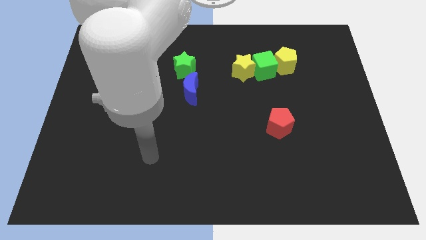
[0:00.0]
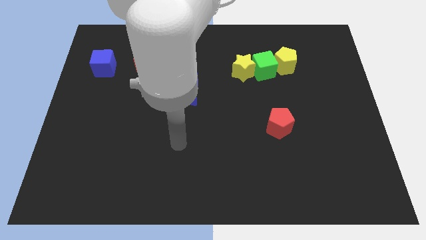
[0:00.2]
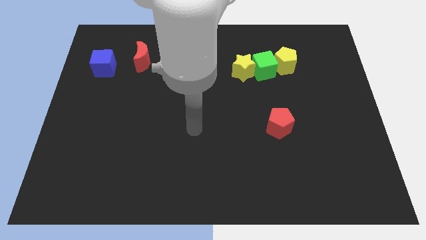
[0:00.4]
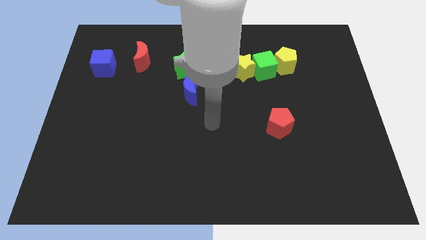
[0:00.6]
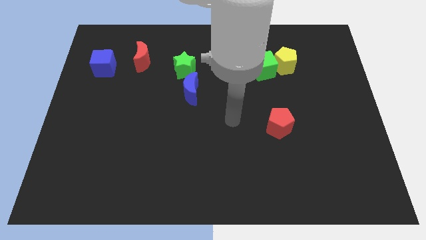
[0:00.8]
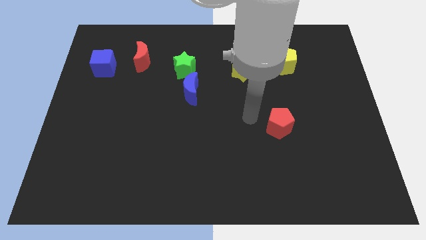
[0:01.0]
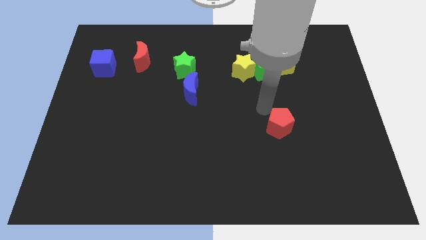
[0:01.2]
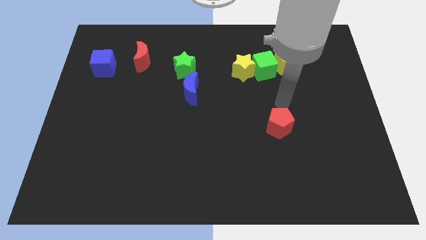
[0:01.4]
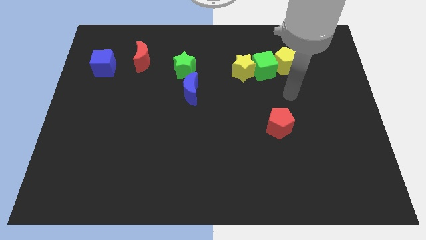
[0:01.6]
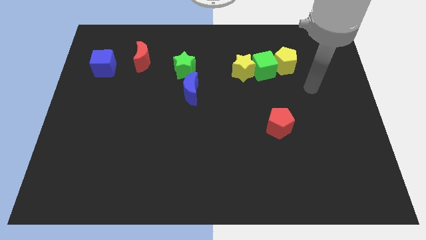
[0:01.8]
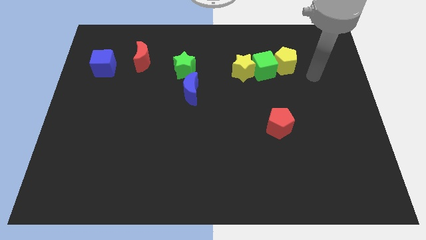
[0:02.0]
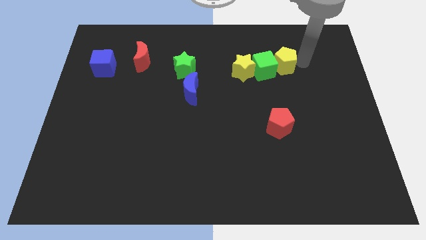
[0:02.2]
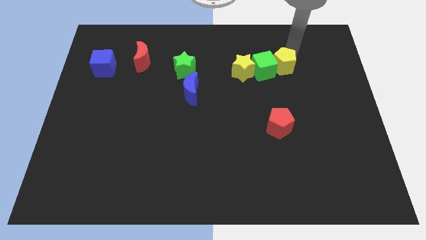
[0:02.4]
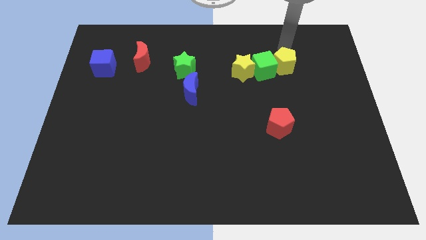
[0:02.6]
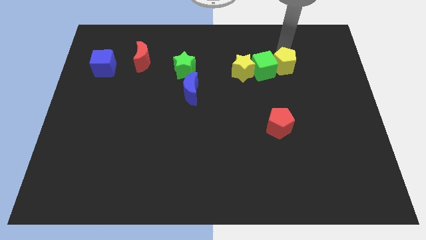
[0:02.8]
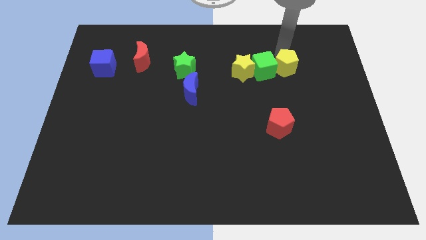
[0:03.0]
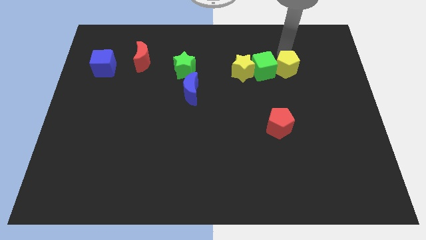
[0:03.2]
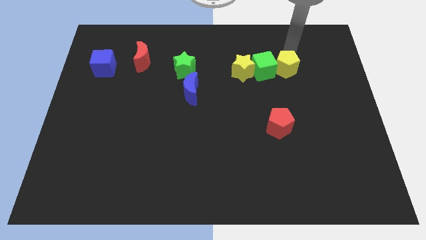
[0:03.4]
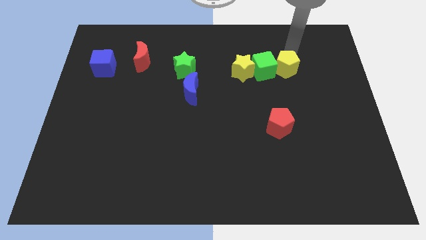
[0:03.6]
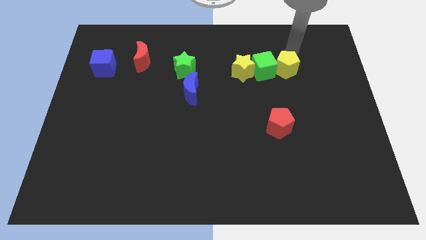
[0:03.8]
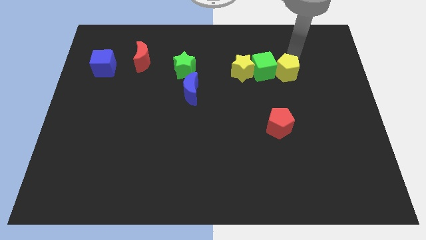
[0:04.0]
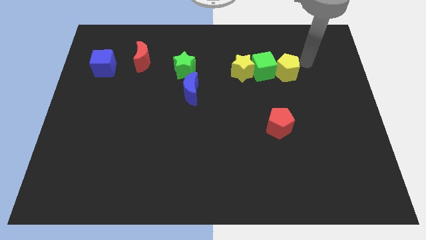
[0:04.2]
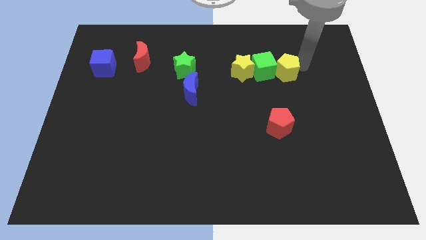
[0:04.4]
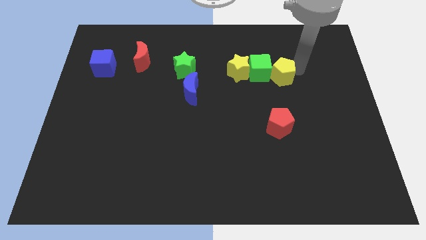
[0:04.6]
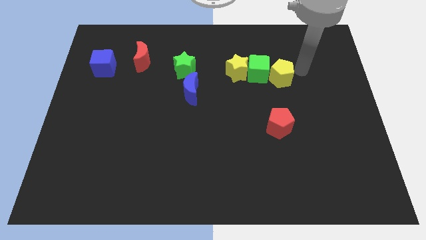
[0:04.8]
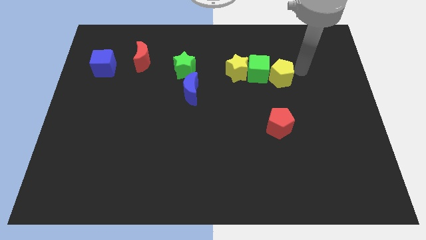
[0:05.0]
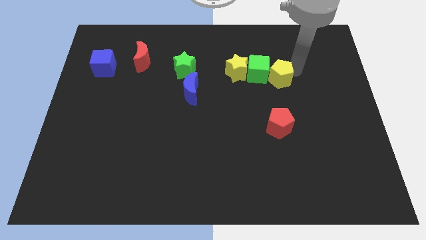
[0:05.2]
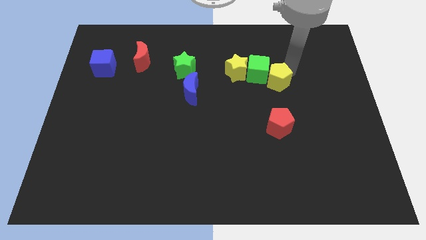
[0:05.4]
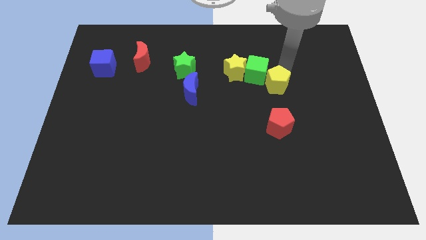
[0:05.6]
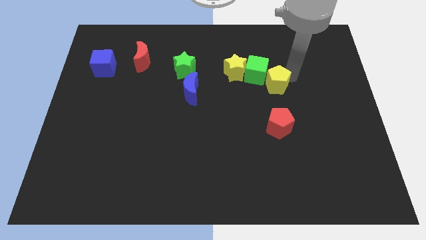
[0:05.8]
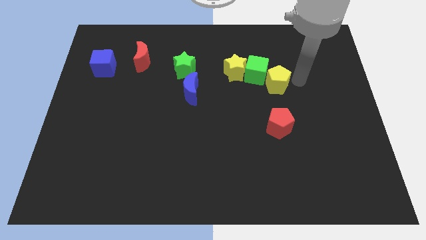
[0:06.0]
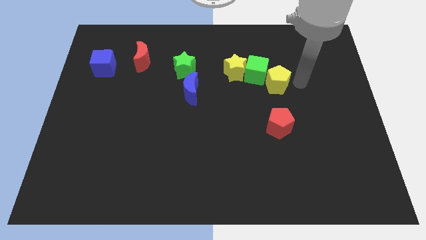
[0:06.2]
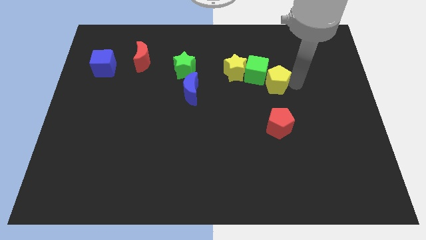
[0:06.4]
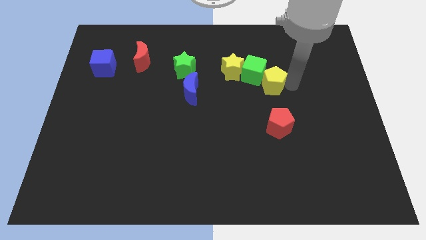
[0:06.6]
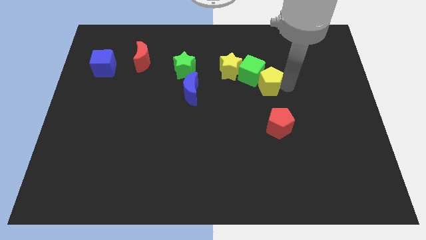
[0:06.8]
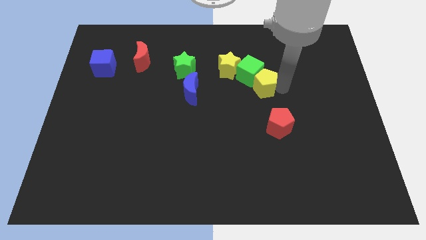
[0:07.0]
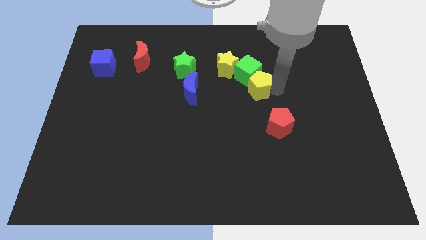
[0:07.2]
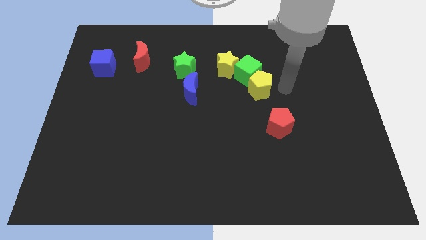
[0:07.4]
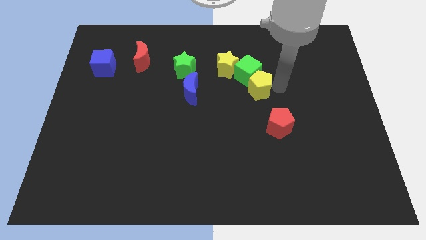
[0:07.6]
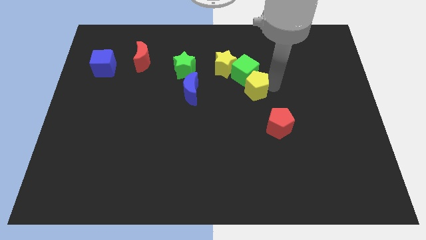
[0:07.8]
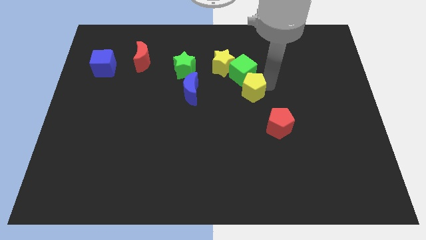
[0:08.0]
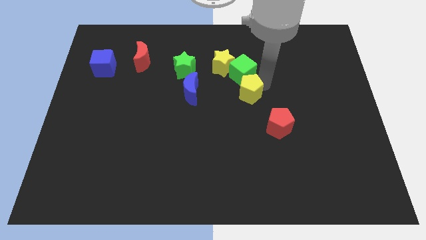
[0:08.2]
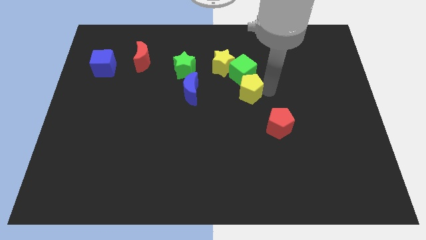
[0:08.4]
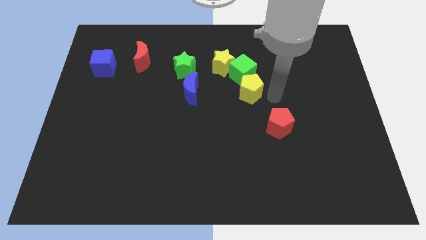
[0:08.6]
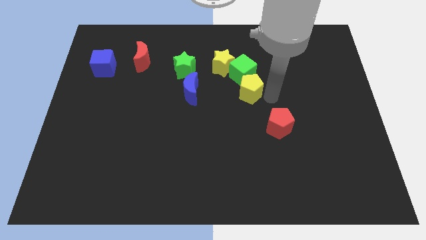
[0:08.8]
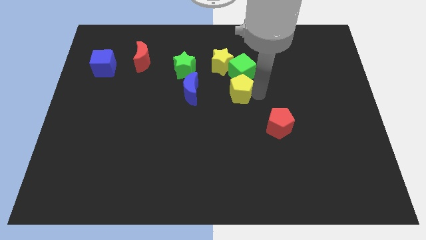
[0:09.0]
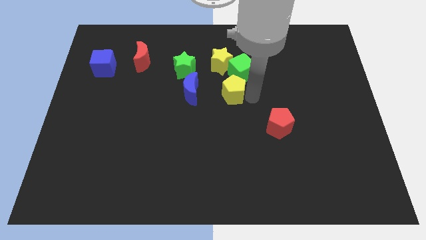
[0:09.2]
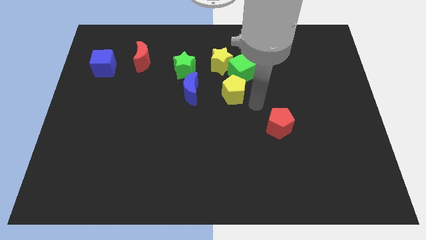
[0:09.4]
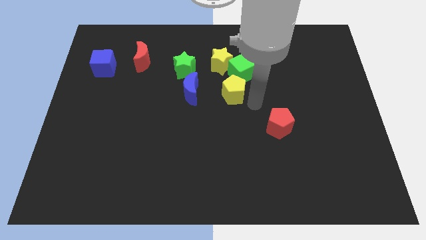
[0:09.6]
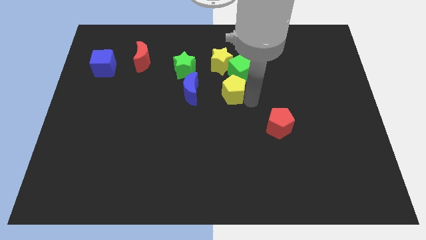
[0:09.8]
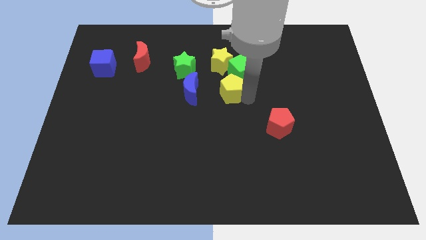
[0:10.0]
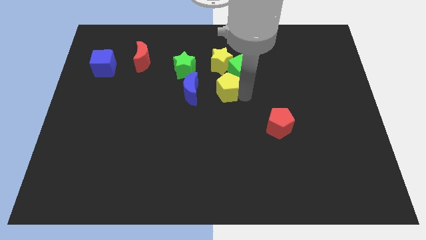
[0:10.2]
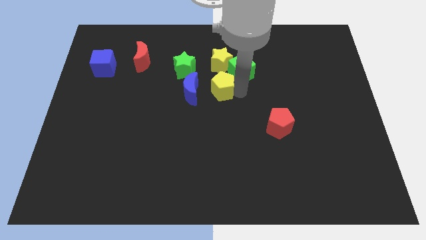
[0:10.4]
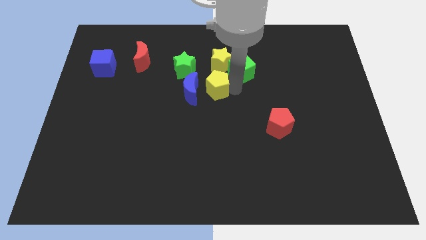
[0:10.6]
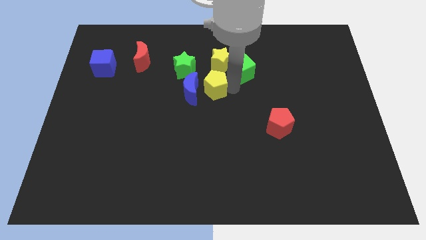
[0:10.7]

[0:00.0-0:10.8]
push the yellow pentagon to the blue moon

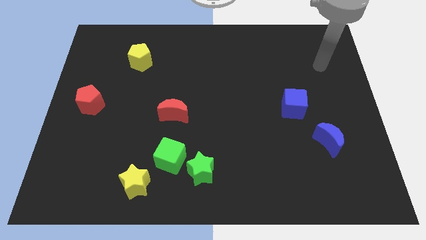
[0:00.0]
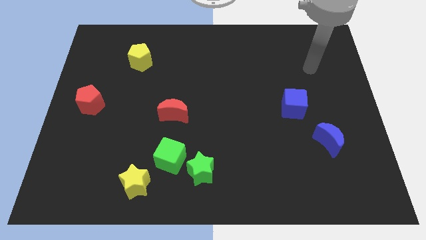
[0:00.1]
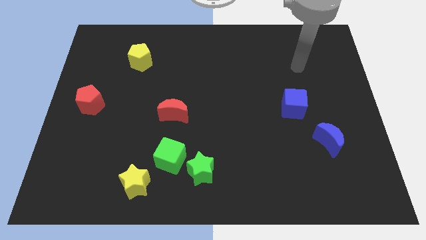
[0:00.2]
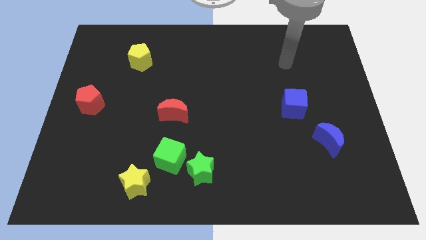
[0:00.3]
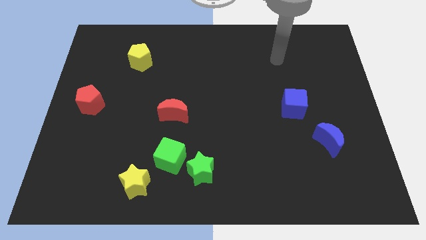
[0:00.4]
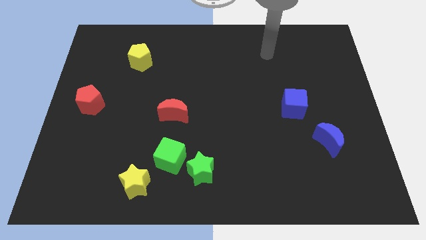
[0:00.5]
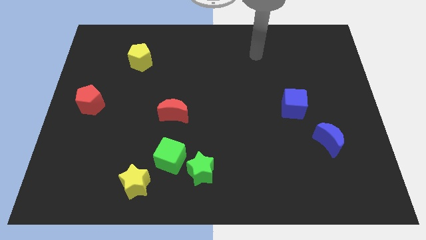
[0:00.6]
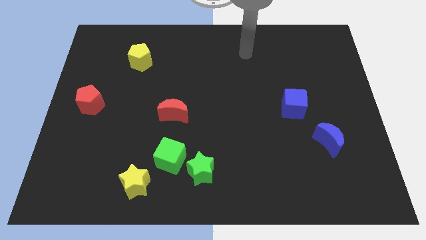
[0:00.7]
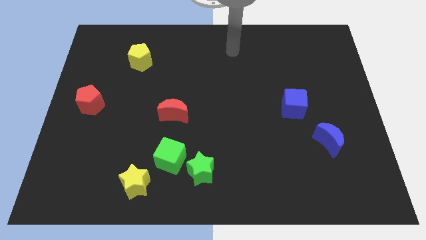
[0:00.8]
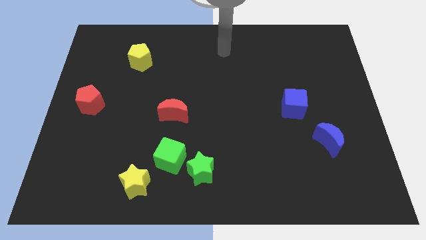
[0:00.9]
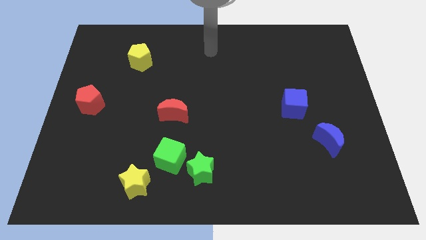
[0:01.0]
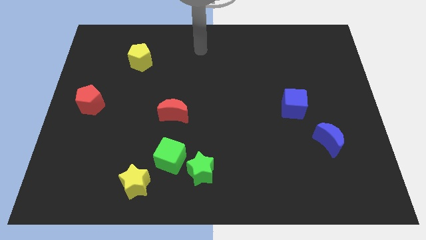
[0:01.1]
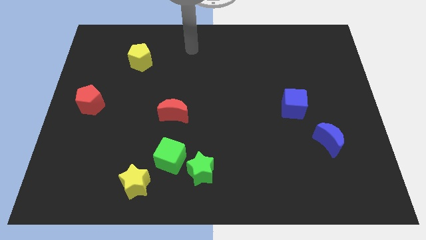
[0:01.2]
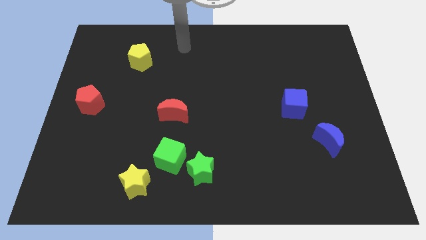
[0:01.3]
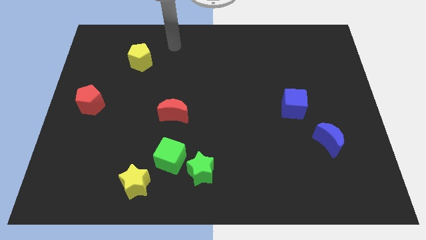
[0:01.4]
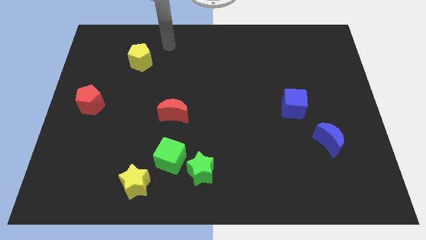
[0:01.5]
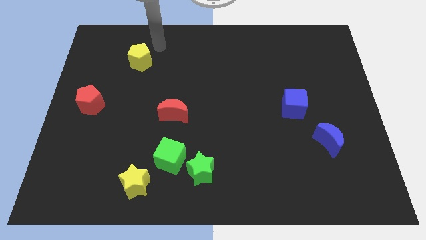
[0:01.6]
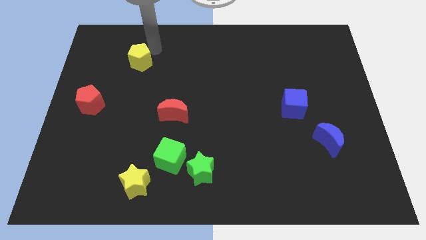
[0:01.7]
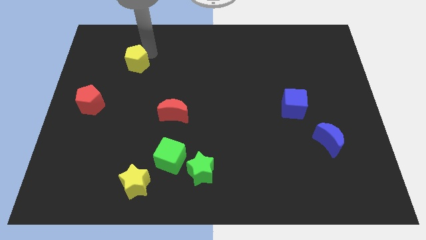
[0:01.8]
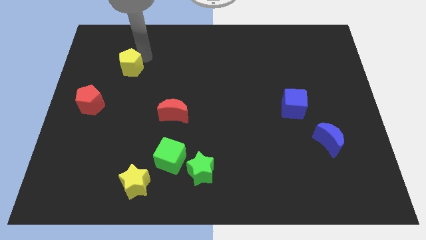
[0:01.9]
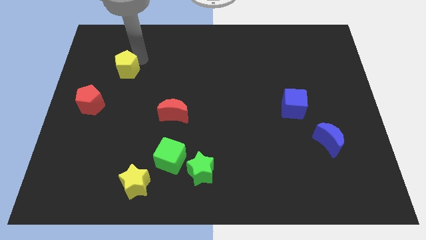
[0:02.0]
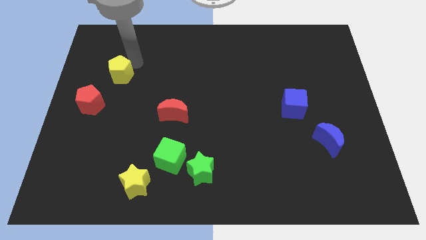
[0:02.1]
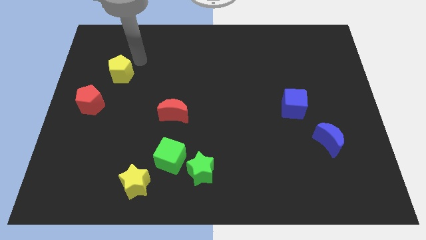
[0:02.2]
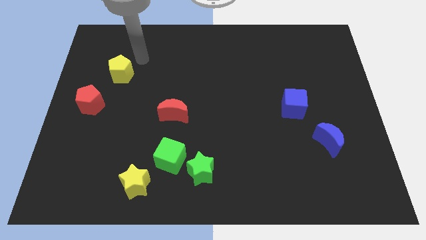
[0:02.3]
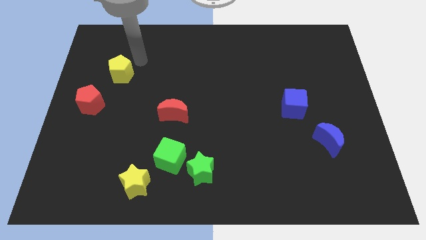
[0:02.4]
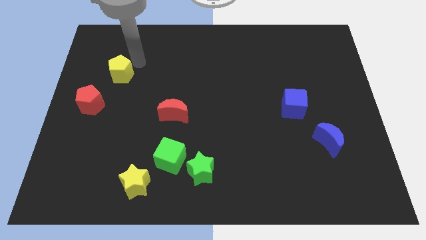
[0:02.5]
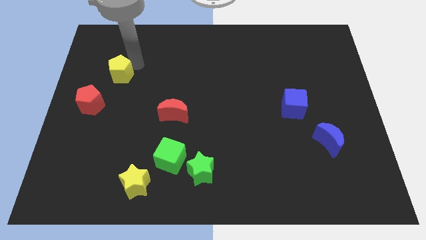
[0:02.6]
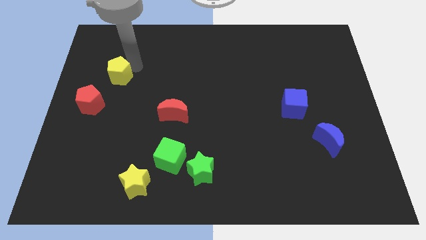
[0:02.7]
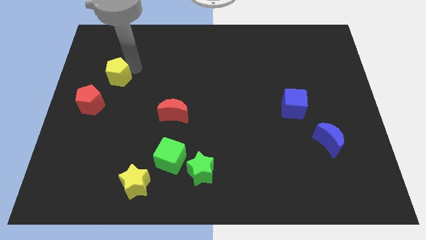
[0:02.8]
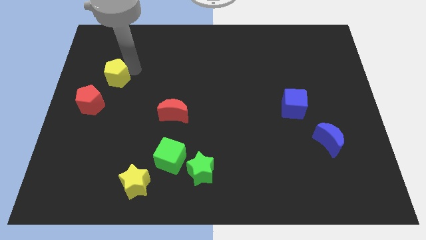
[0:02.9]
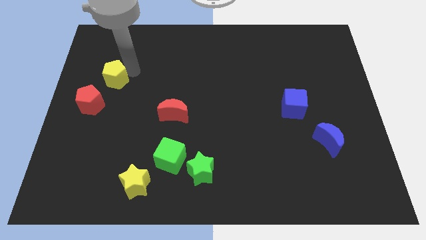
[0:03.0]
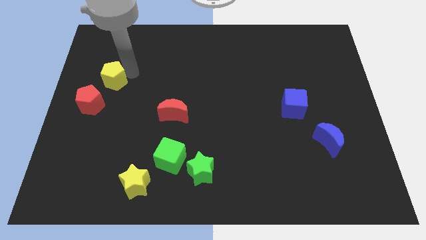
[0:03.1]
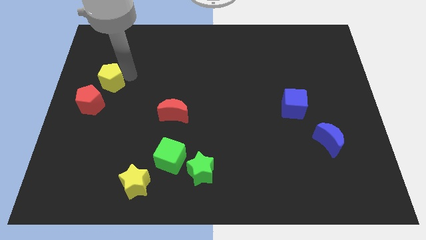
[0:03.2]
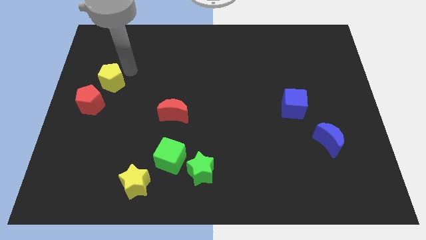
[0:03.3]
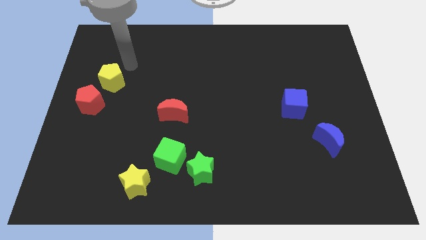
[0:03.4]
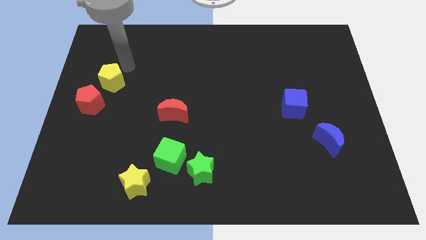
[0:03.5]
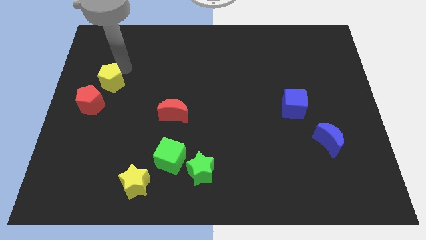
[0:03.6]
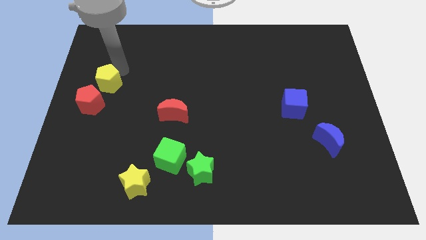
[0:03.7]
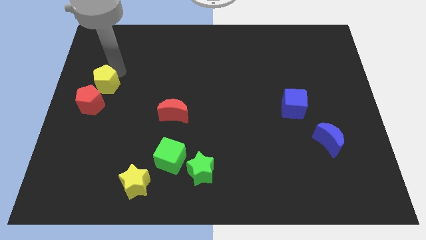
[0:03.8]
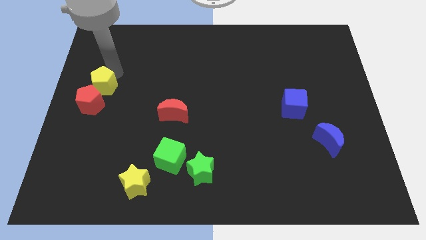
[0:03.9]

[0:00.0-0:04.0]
put the yellow pentagon towards the red pentagon
